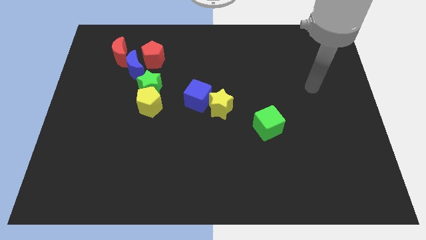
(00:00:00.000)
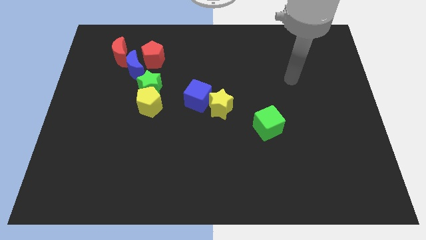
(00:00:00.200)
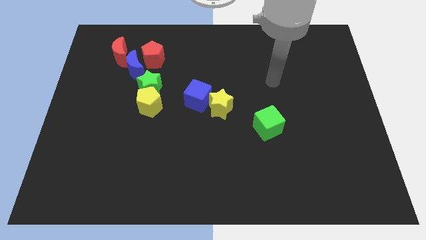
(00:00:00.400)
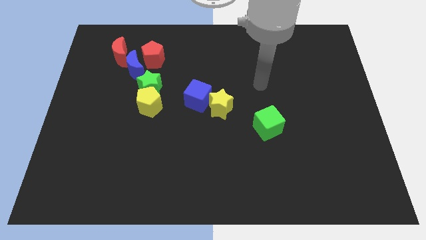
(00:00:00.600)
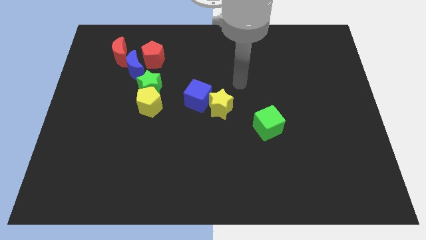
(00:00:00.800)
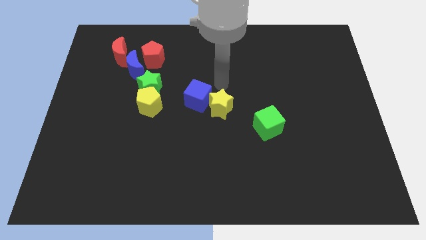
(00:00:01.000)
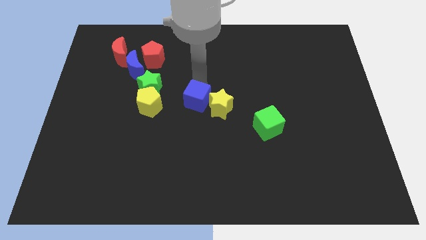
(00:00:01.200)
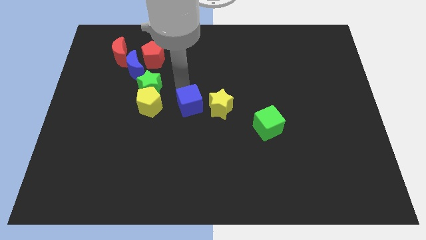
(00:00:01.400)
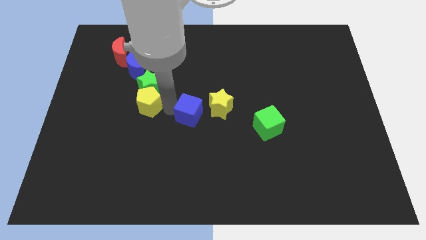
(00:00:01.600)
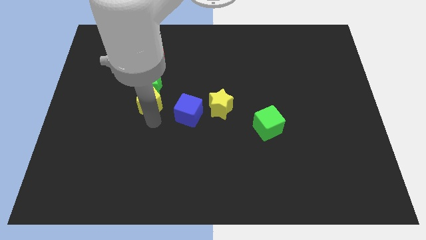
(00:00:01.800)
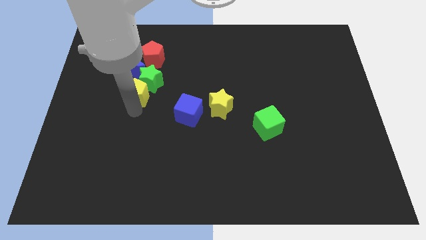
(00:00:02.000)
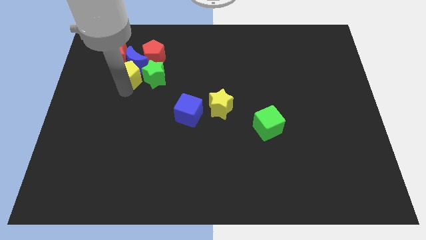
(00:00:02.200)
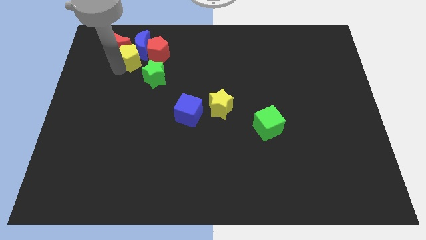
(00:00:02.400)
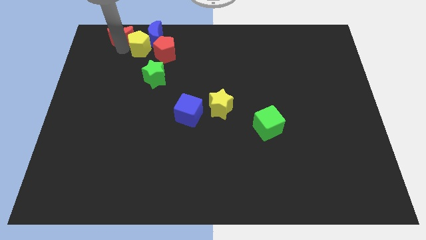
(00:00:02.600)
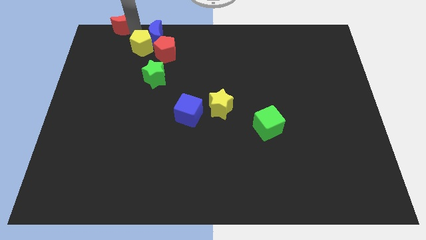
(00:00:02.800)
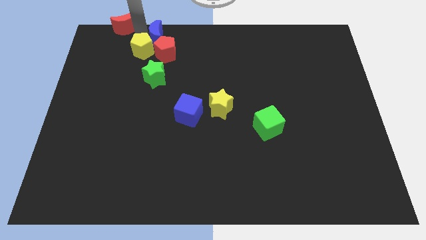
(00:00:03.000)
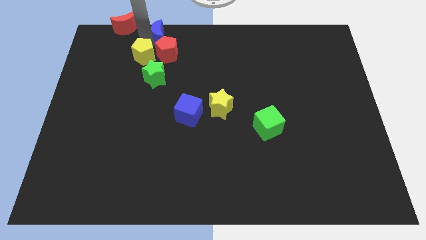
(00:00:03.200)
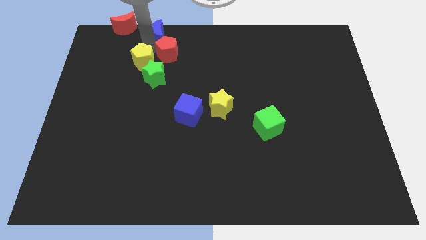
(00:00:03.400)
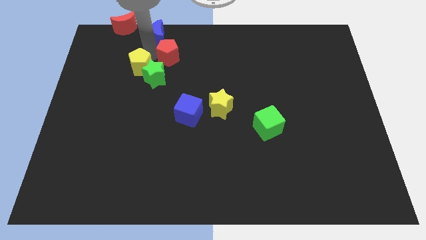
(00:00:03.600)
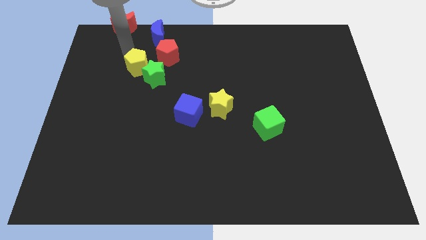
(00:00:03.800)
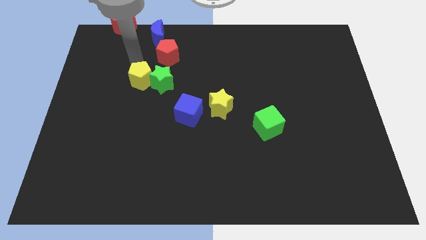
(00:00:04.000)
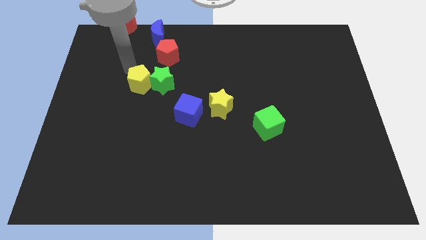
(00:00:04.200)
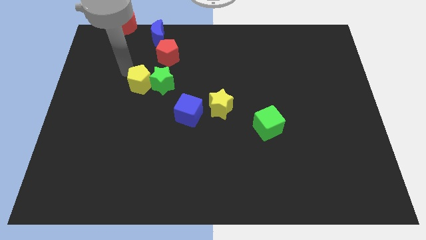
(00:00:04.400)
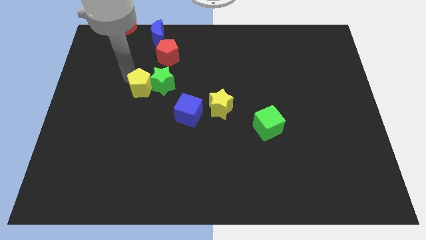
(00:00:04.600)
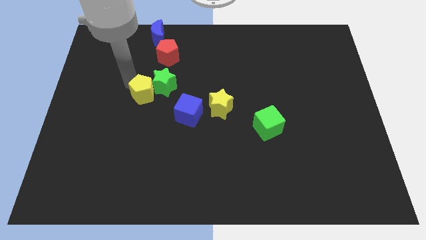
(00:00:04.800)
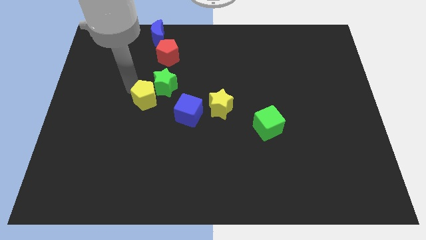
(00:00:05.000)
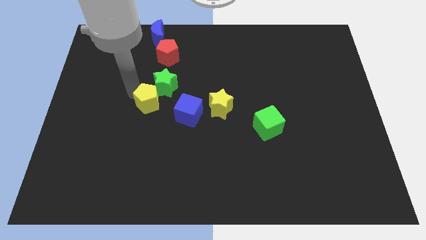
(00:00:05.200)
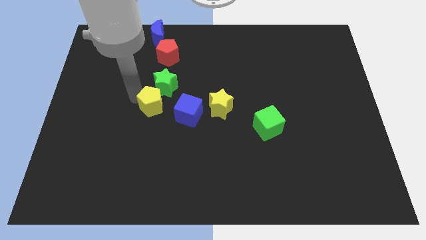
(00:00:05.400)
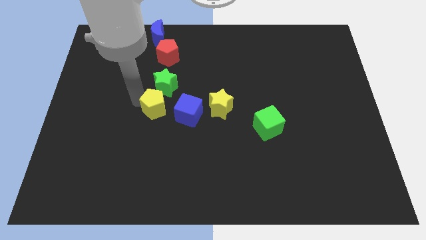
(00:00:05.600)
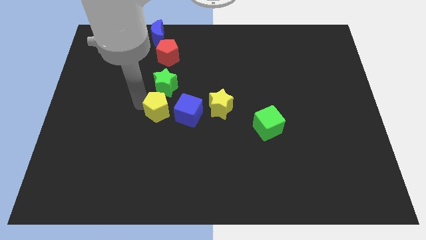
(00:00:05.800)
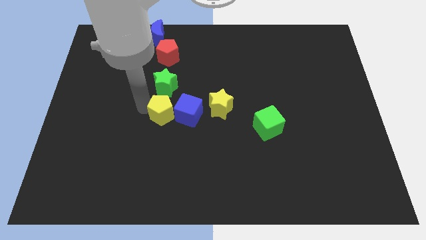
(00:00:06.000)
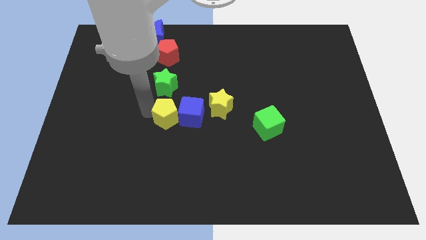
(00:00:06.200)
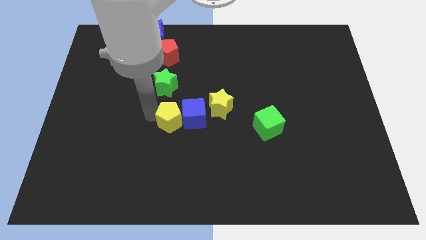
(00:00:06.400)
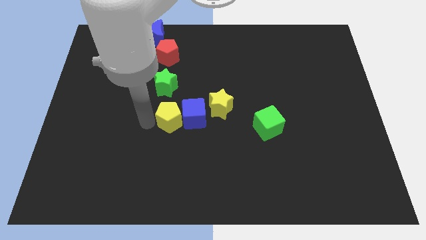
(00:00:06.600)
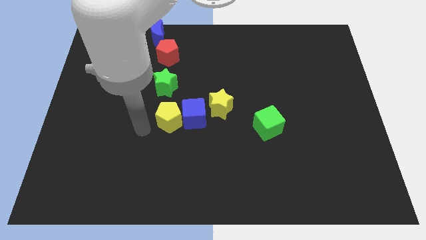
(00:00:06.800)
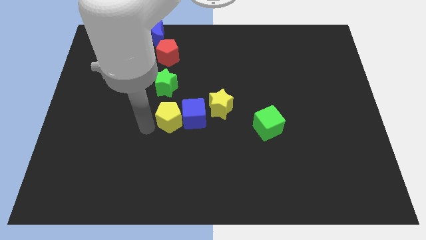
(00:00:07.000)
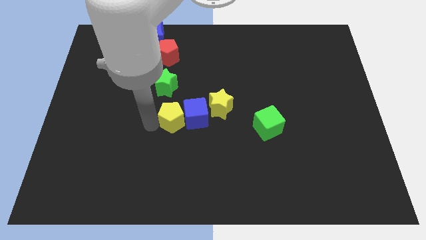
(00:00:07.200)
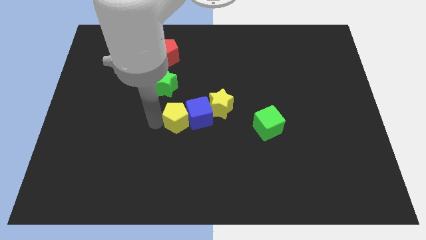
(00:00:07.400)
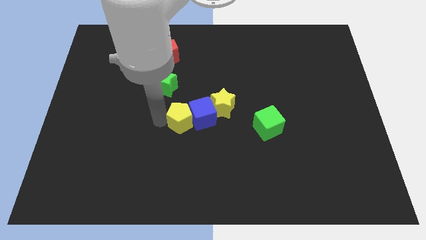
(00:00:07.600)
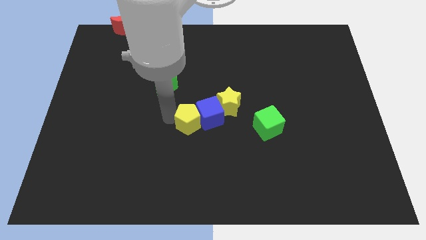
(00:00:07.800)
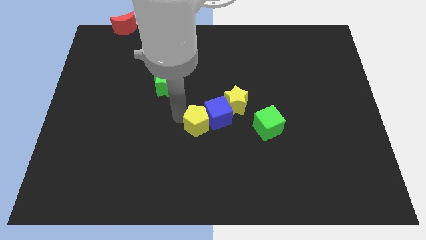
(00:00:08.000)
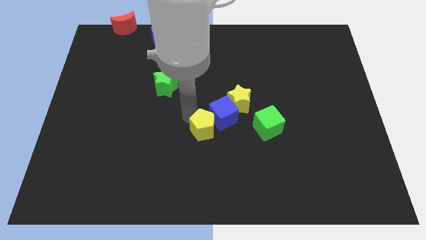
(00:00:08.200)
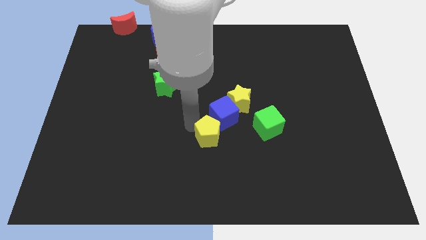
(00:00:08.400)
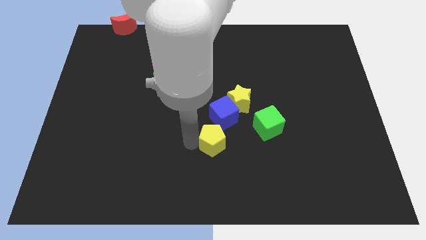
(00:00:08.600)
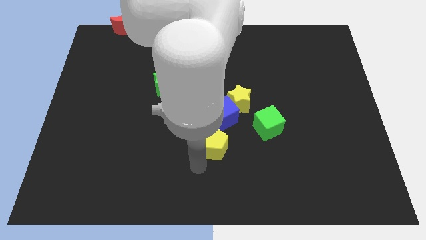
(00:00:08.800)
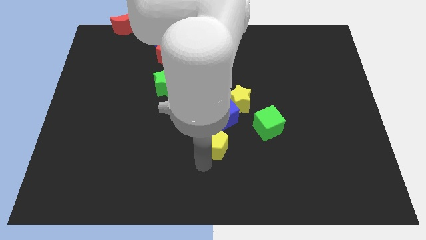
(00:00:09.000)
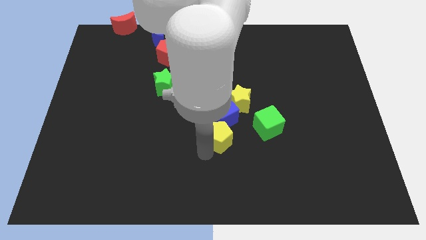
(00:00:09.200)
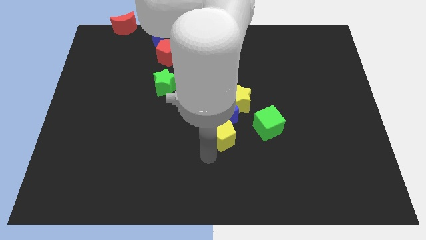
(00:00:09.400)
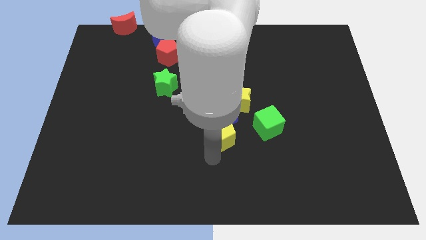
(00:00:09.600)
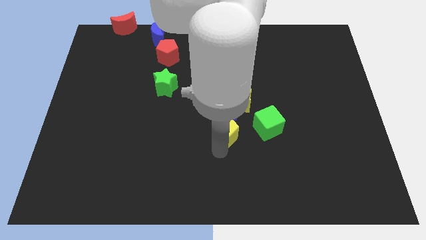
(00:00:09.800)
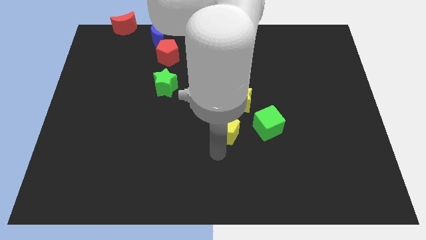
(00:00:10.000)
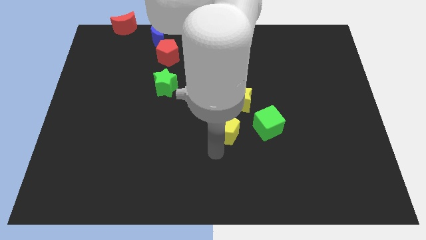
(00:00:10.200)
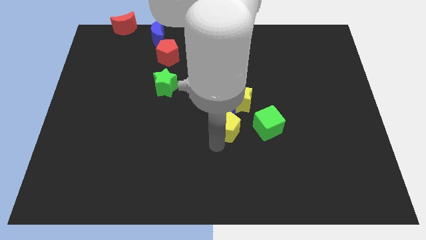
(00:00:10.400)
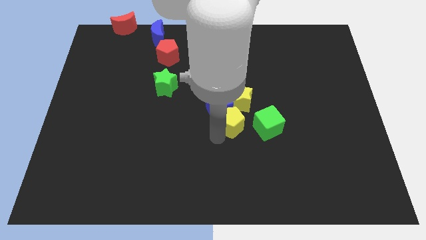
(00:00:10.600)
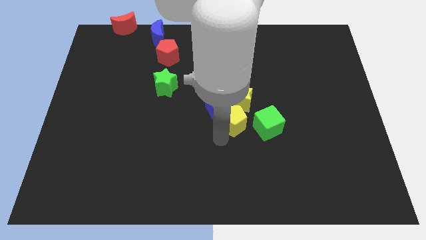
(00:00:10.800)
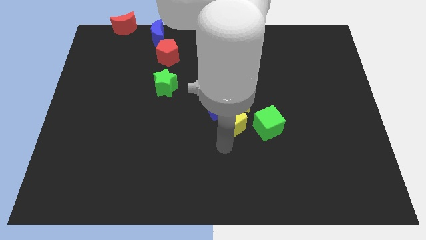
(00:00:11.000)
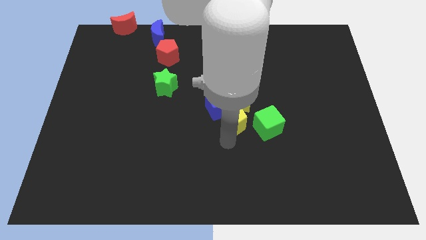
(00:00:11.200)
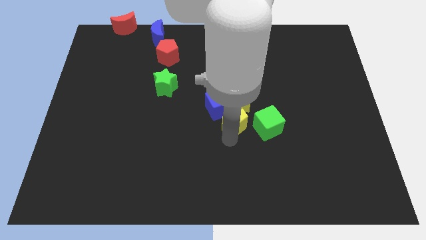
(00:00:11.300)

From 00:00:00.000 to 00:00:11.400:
slide the yellow pentagon next to the yellow star
